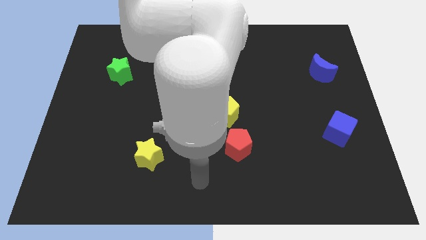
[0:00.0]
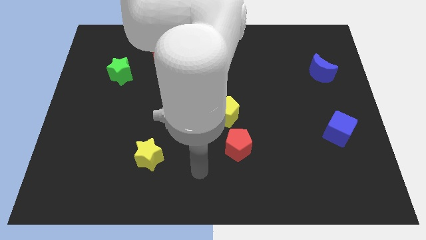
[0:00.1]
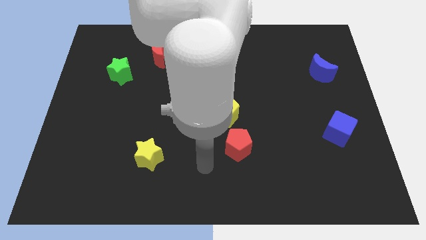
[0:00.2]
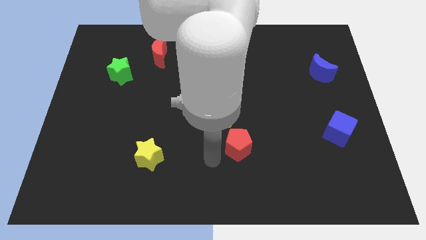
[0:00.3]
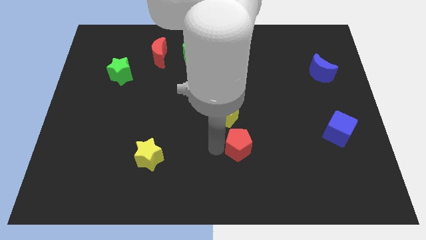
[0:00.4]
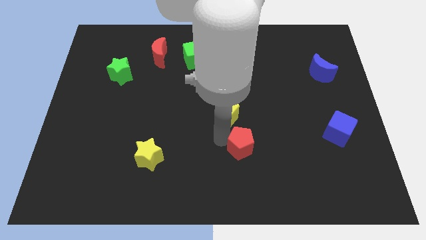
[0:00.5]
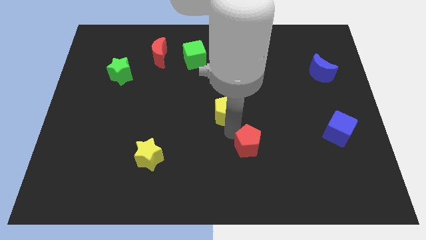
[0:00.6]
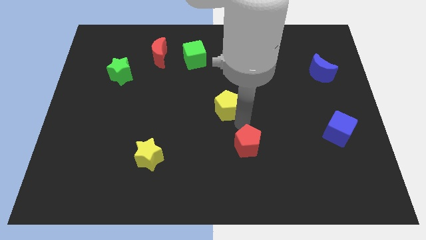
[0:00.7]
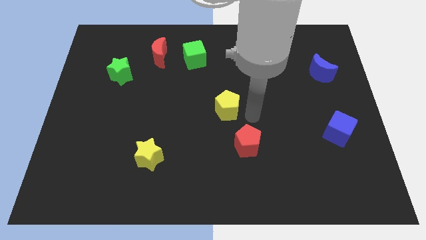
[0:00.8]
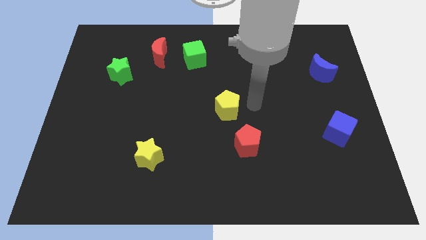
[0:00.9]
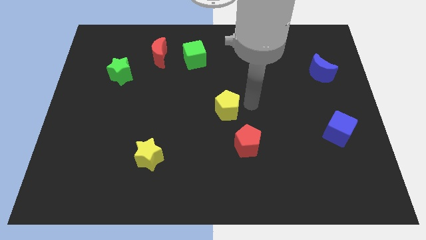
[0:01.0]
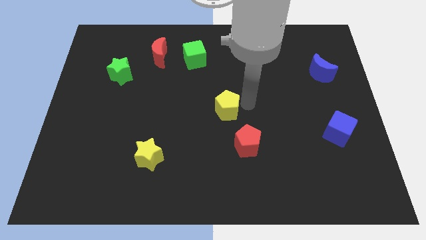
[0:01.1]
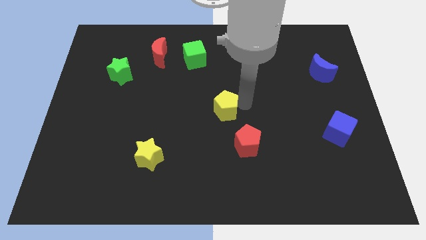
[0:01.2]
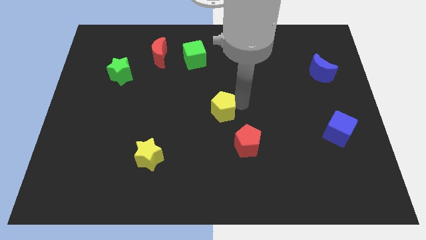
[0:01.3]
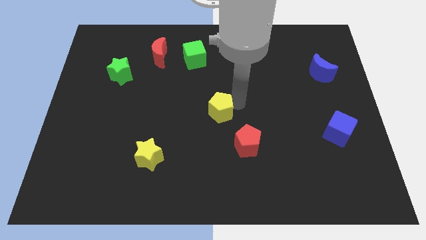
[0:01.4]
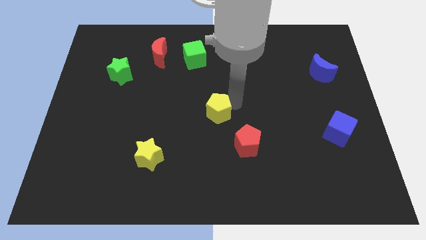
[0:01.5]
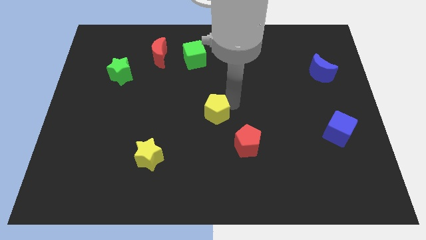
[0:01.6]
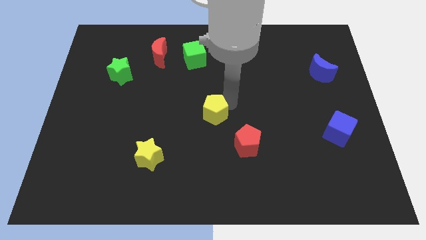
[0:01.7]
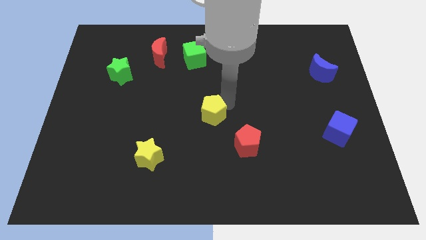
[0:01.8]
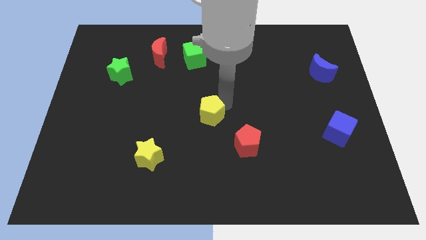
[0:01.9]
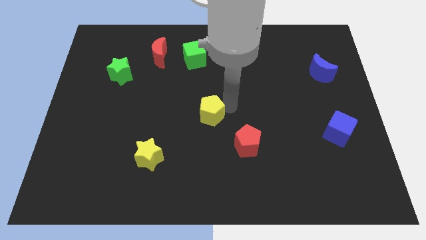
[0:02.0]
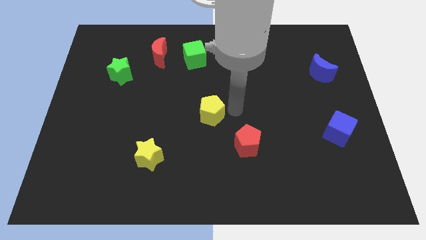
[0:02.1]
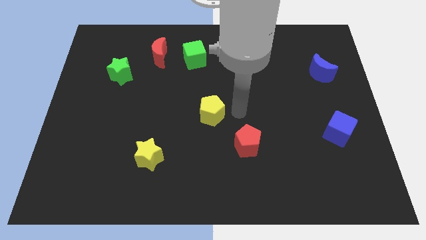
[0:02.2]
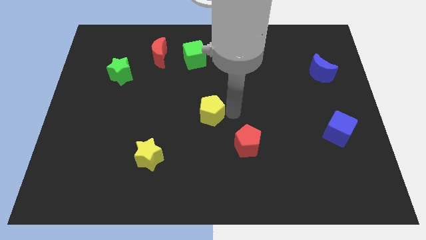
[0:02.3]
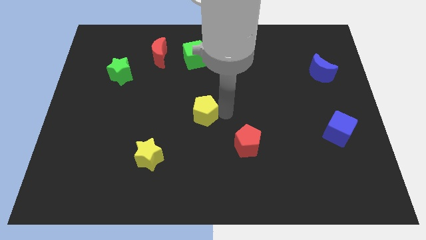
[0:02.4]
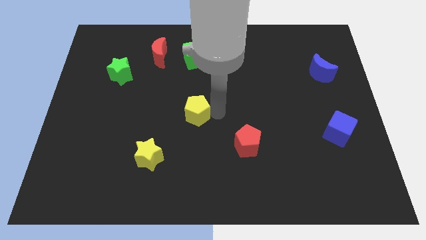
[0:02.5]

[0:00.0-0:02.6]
slightly move the yellow pentagon to the left

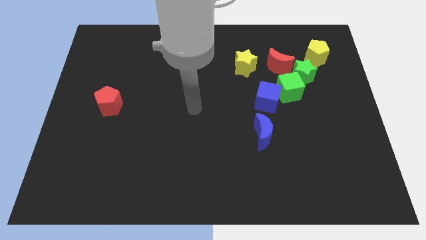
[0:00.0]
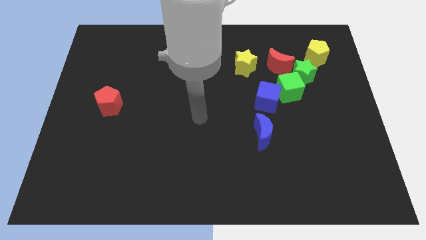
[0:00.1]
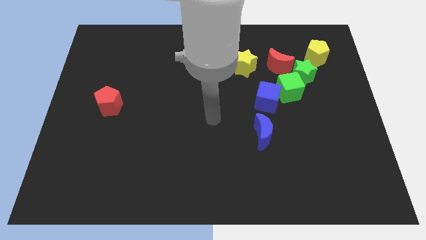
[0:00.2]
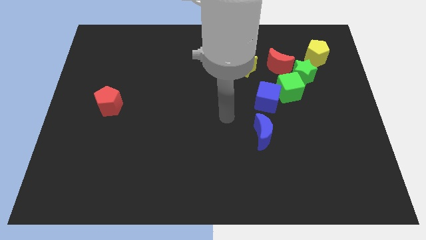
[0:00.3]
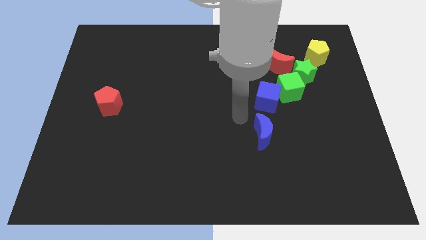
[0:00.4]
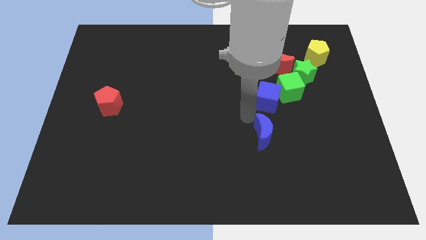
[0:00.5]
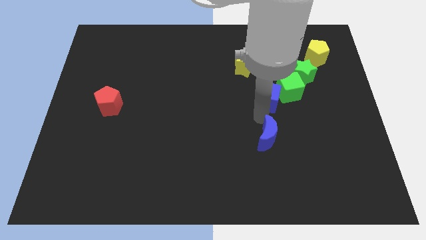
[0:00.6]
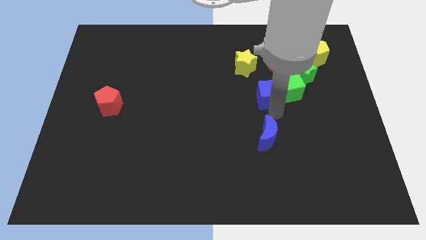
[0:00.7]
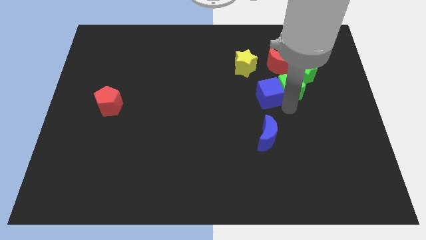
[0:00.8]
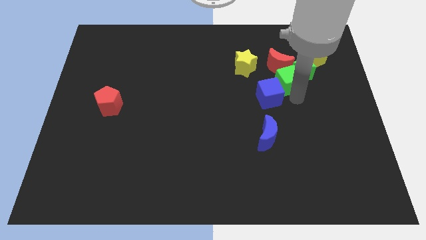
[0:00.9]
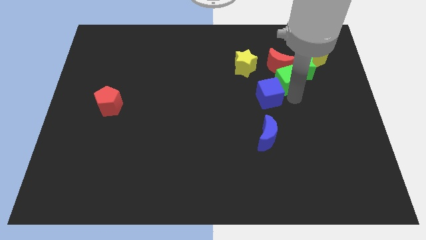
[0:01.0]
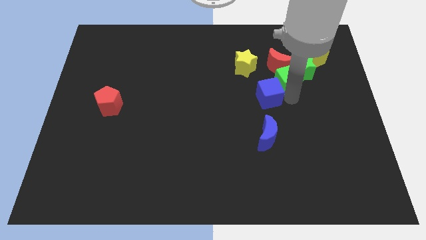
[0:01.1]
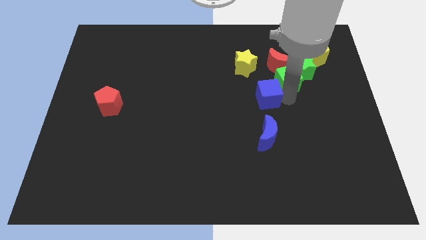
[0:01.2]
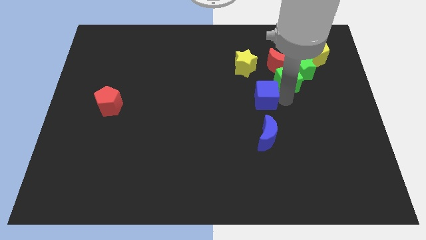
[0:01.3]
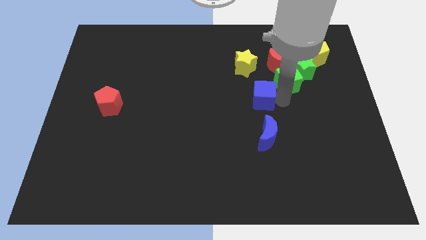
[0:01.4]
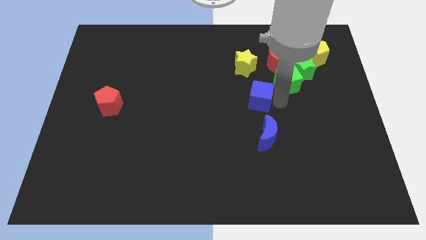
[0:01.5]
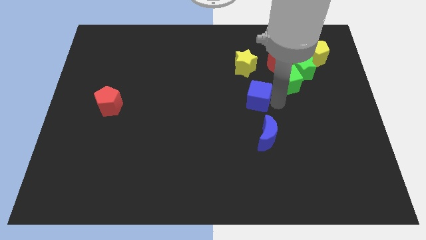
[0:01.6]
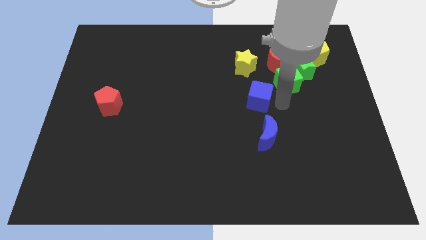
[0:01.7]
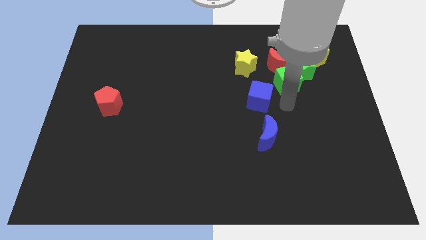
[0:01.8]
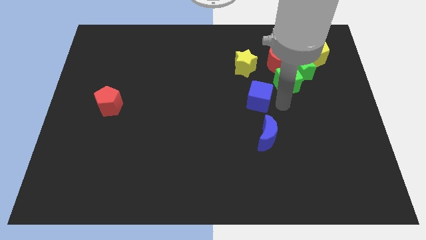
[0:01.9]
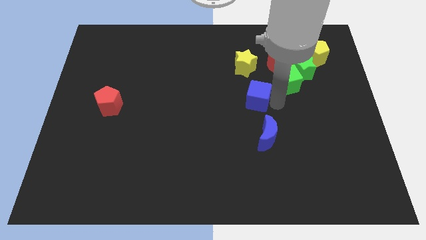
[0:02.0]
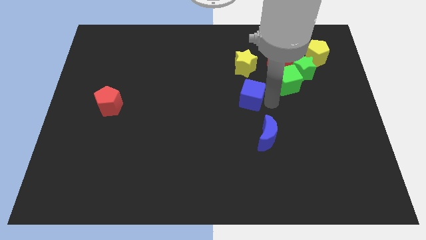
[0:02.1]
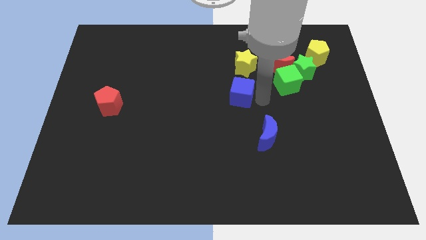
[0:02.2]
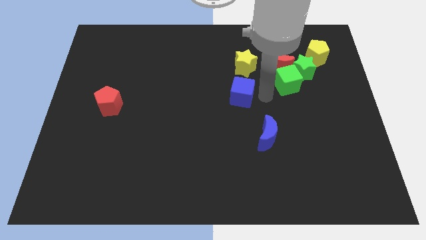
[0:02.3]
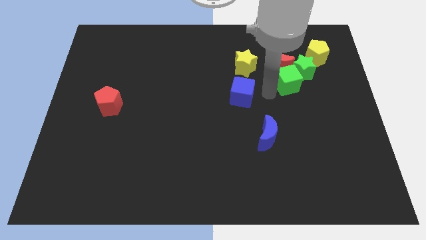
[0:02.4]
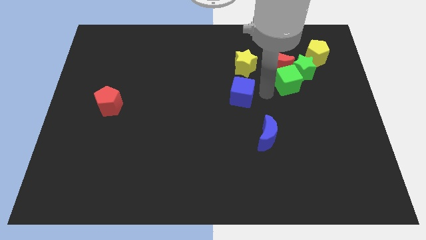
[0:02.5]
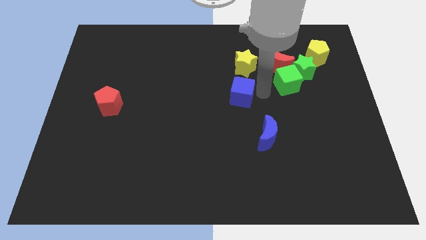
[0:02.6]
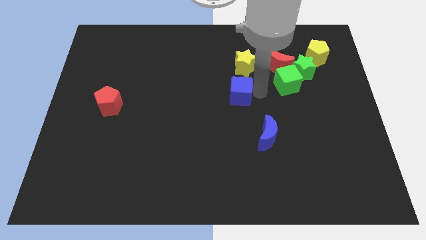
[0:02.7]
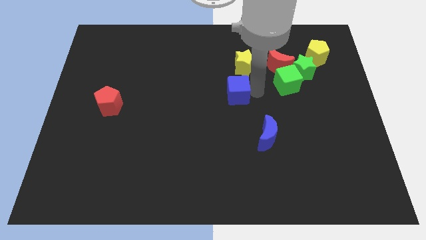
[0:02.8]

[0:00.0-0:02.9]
slightly slide the blue cube left

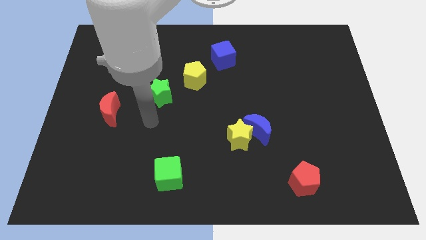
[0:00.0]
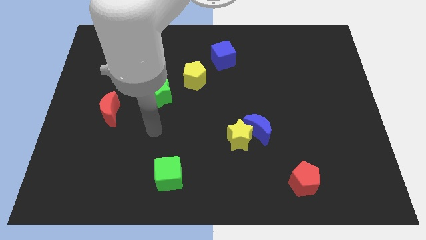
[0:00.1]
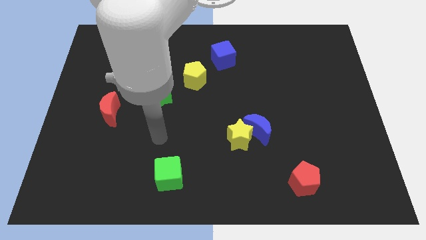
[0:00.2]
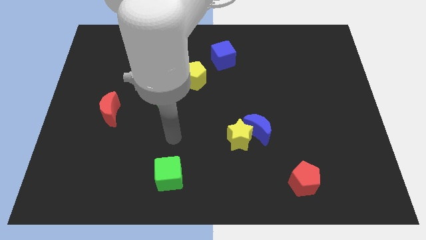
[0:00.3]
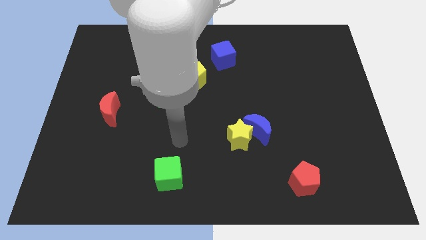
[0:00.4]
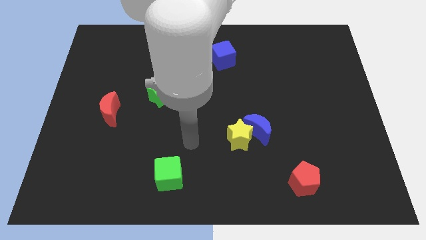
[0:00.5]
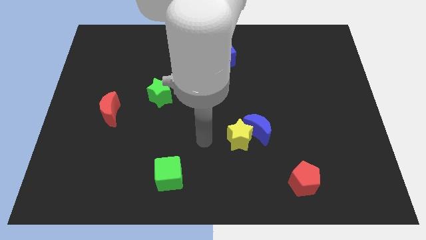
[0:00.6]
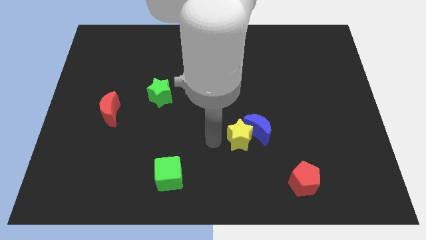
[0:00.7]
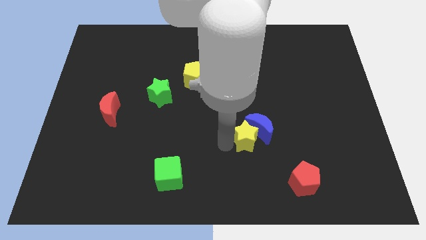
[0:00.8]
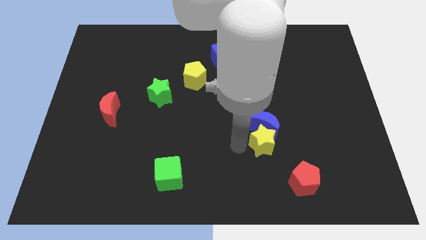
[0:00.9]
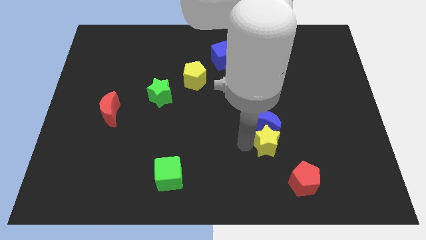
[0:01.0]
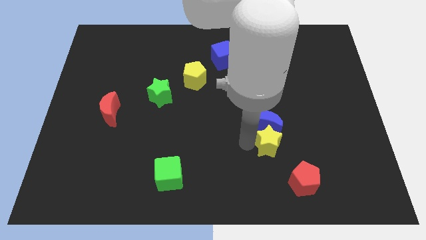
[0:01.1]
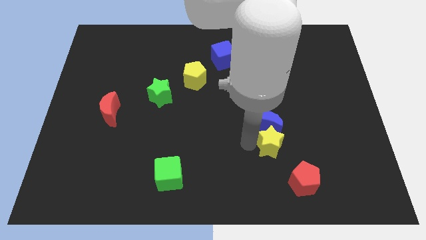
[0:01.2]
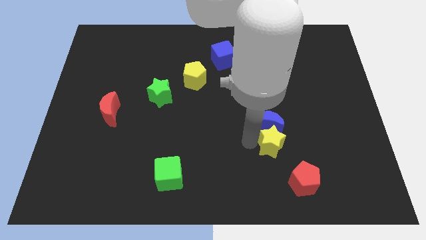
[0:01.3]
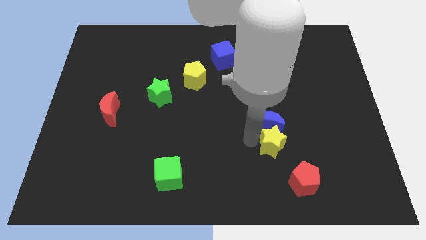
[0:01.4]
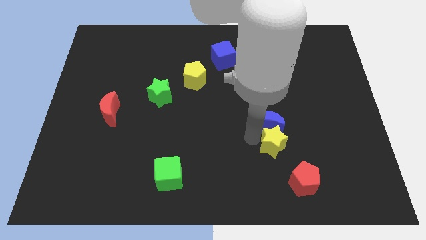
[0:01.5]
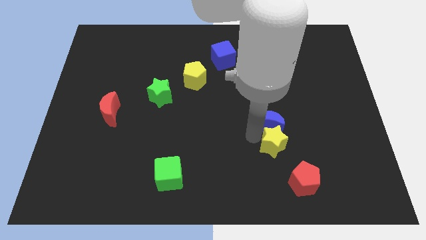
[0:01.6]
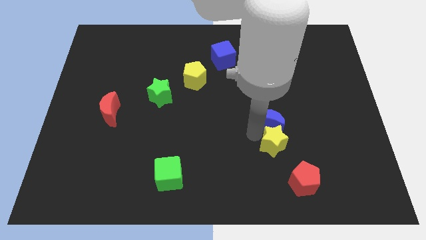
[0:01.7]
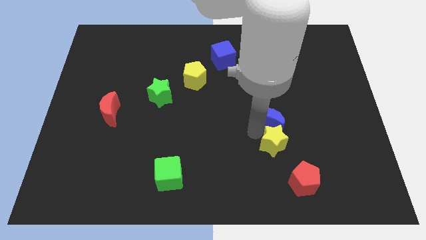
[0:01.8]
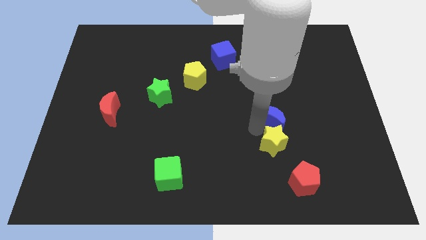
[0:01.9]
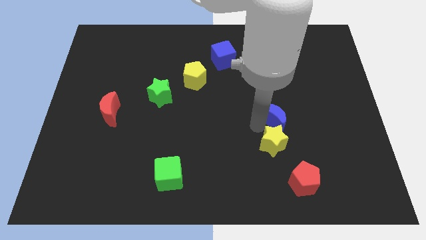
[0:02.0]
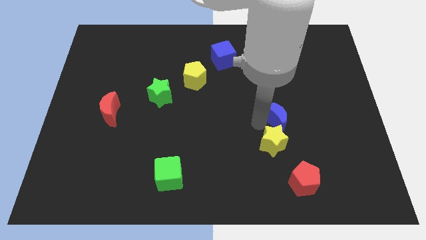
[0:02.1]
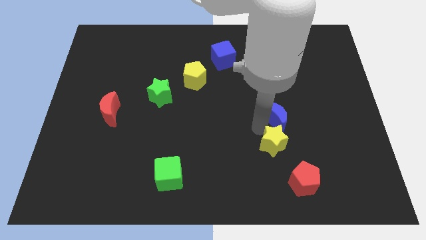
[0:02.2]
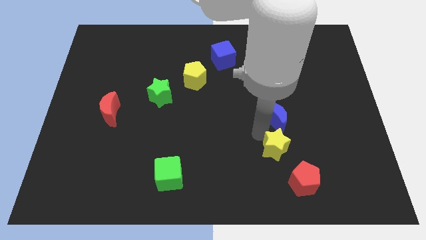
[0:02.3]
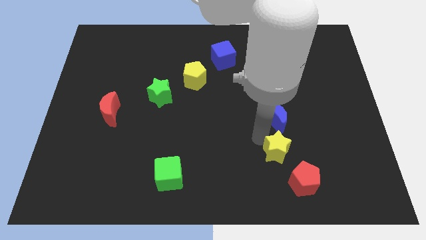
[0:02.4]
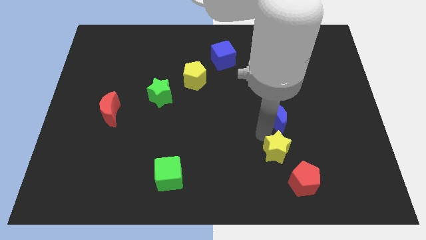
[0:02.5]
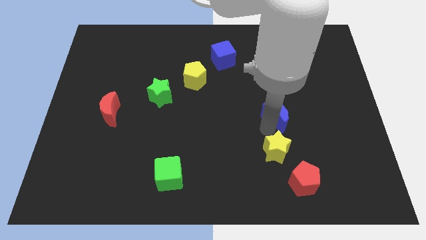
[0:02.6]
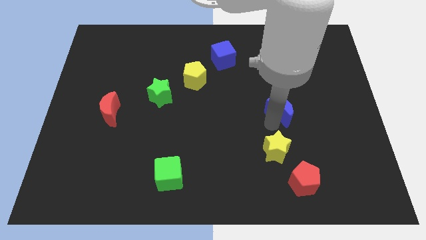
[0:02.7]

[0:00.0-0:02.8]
push the blue moon diagonally upwards and to the right a little

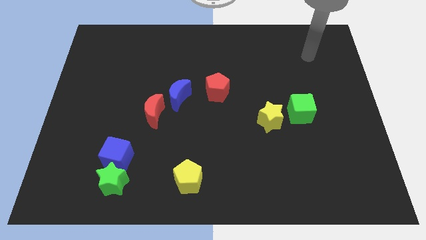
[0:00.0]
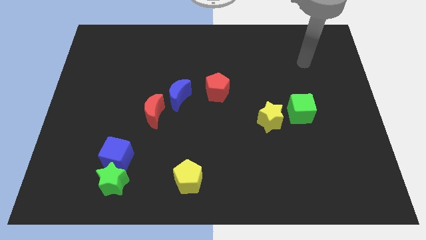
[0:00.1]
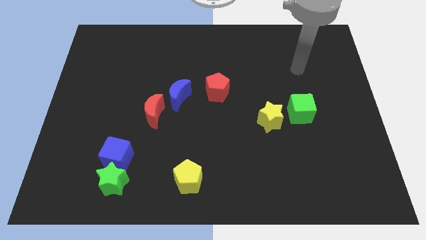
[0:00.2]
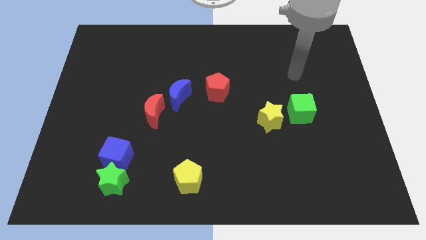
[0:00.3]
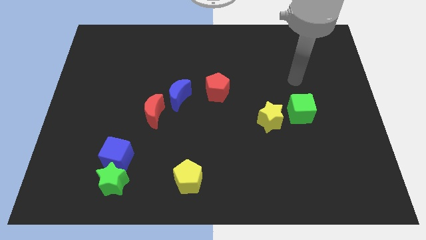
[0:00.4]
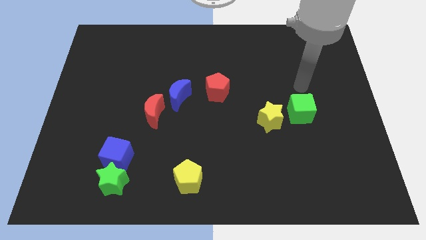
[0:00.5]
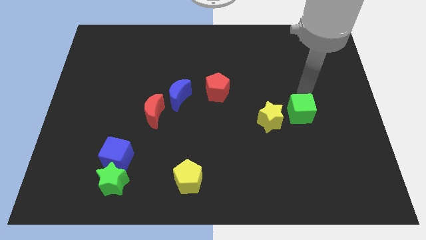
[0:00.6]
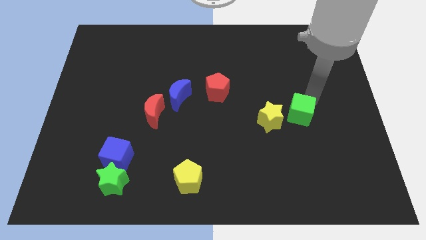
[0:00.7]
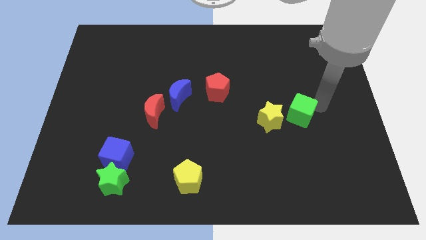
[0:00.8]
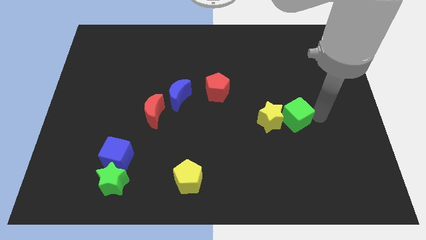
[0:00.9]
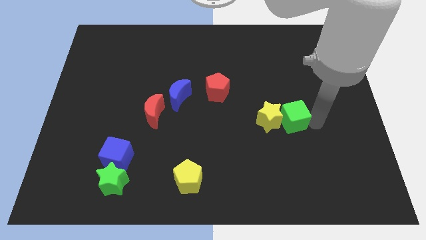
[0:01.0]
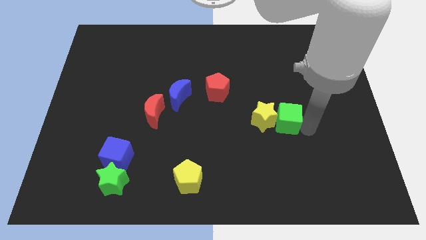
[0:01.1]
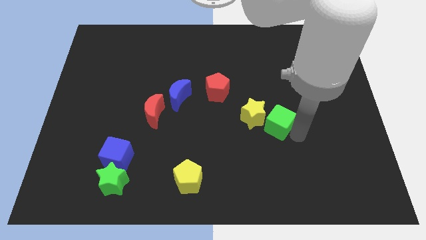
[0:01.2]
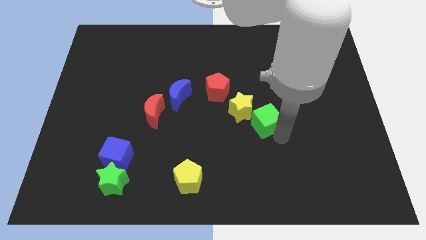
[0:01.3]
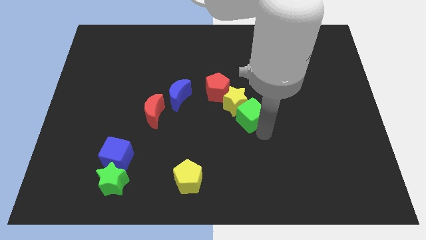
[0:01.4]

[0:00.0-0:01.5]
slightly slide the yellow star up and then to the left
